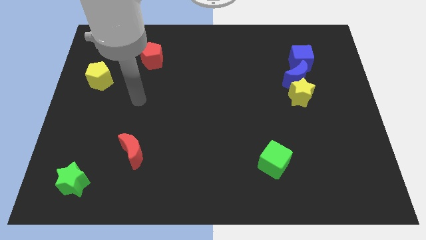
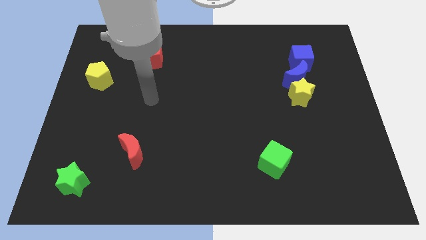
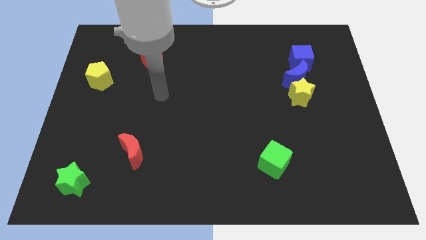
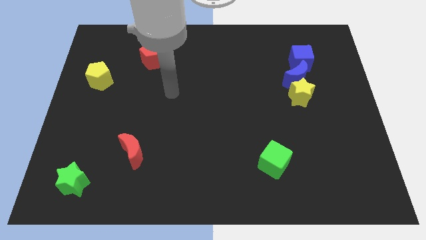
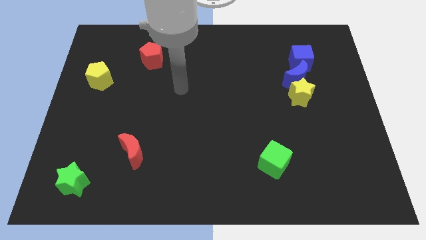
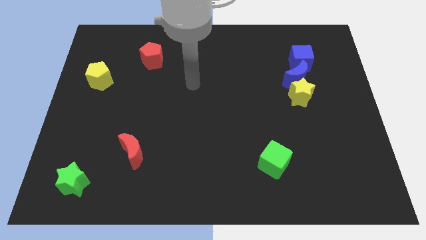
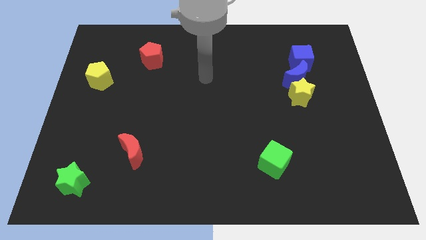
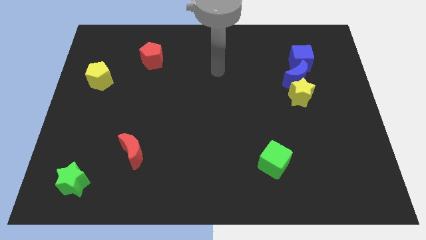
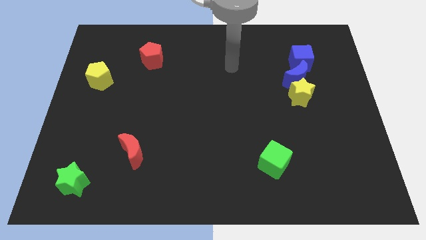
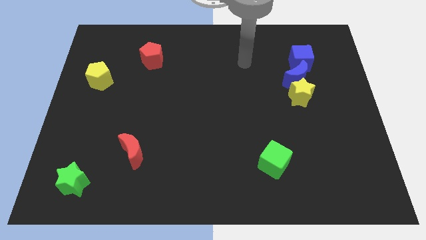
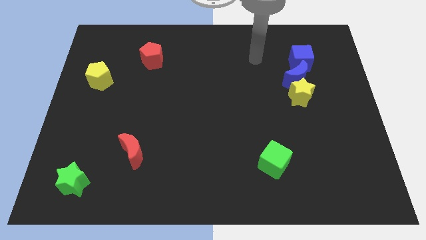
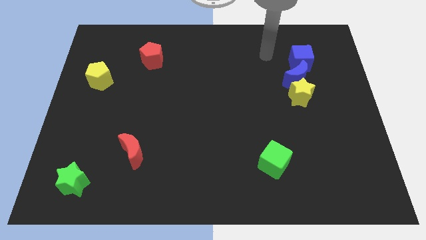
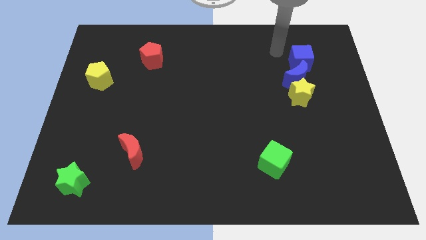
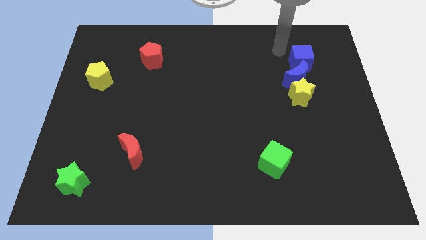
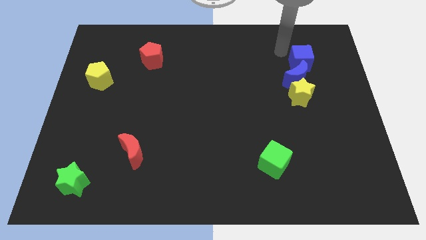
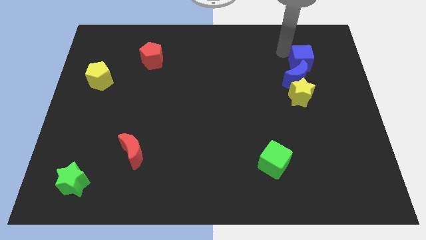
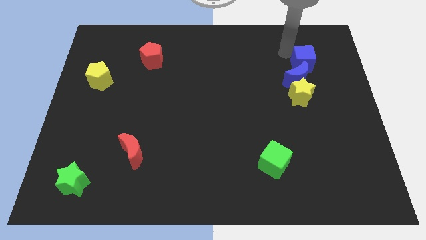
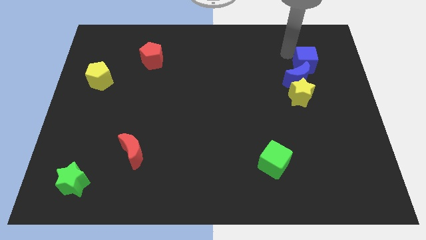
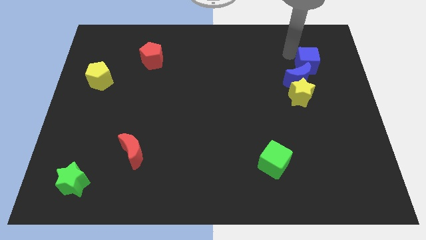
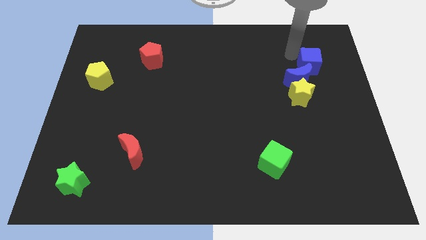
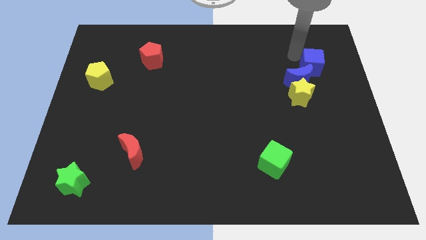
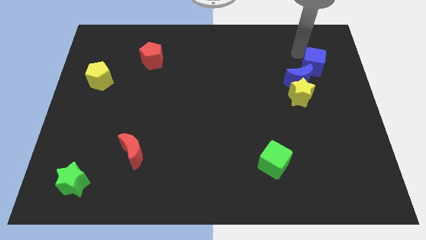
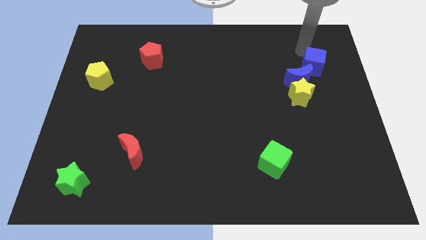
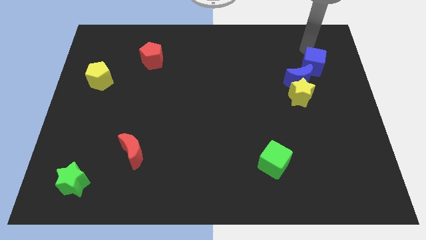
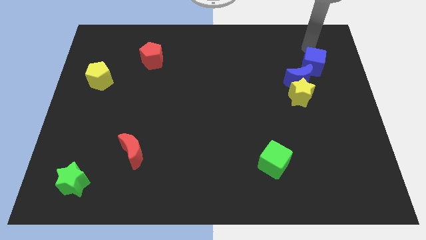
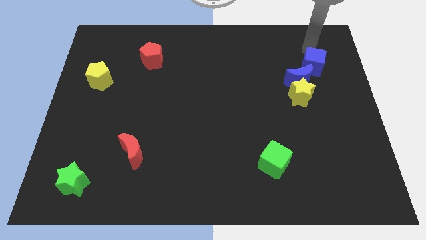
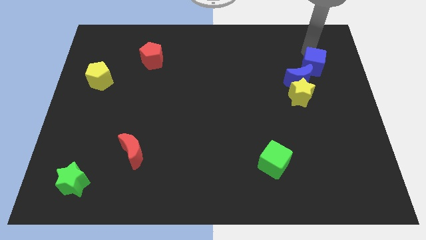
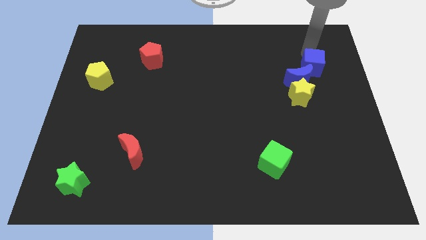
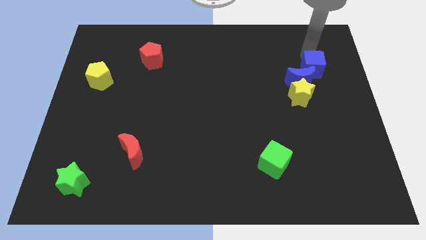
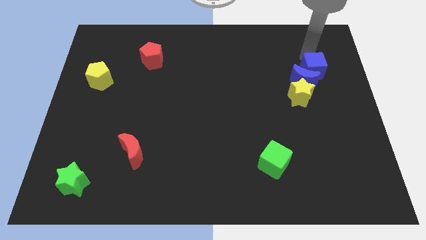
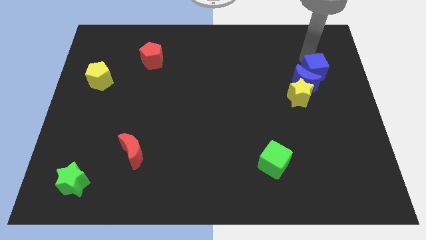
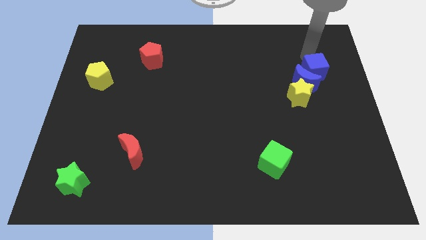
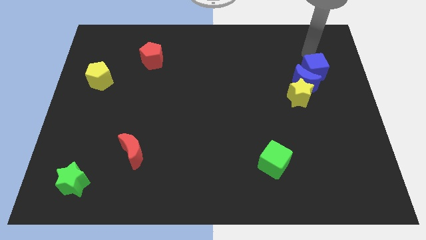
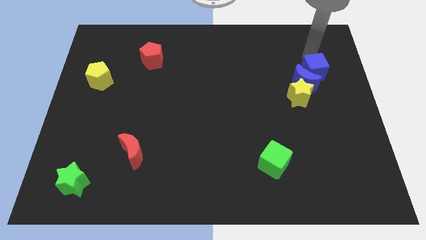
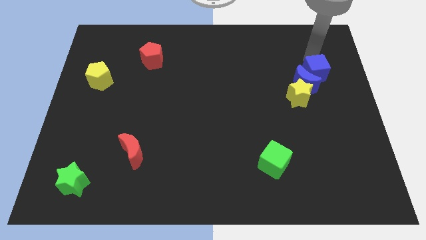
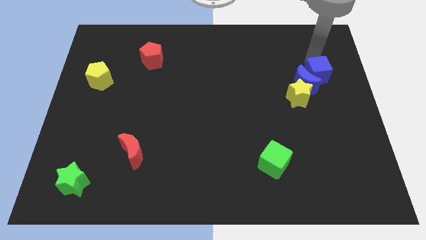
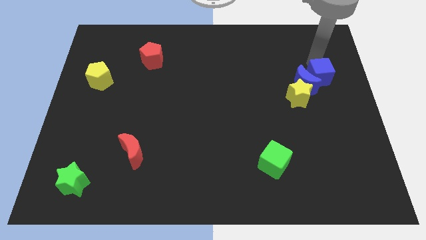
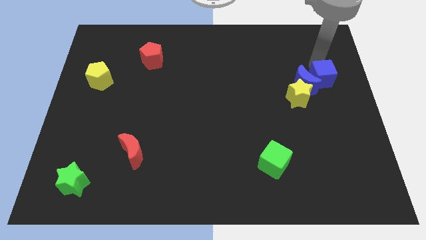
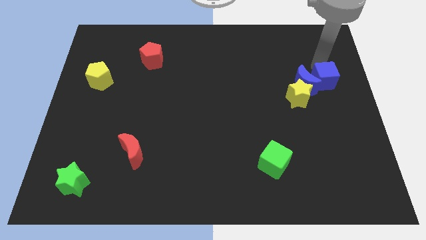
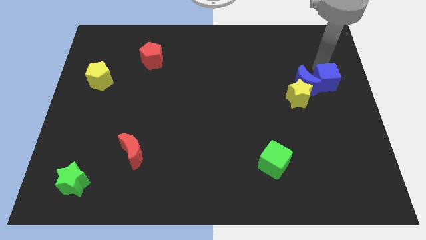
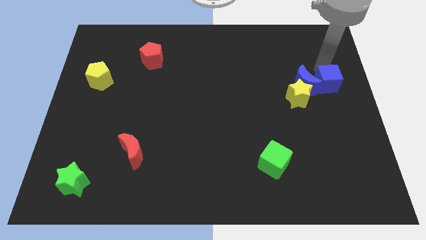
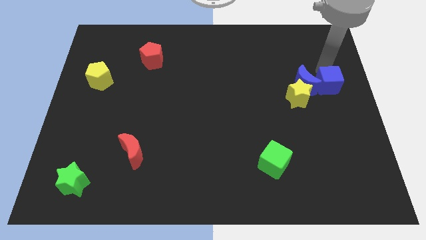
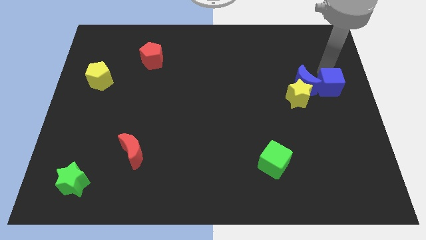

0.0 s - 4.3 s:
slightly push the blue cube downwards

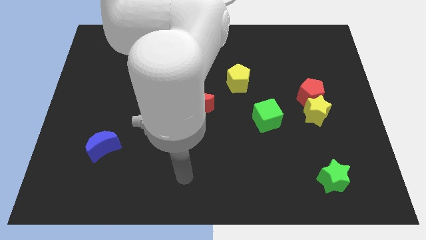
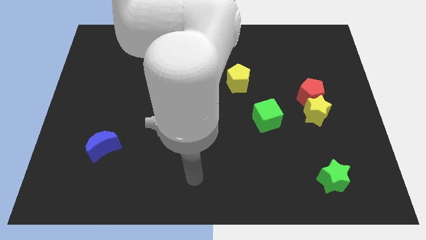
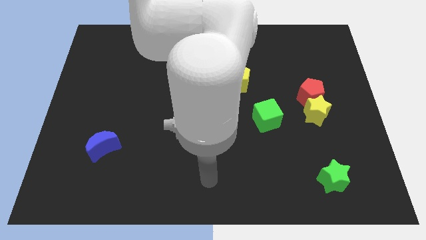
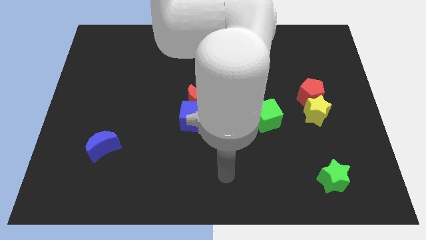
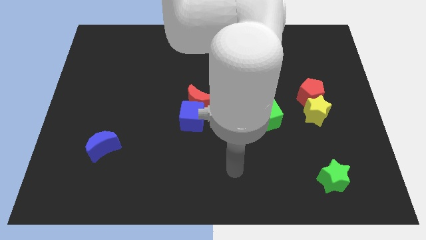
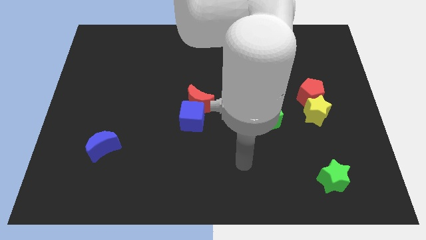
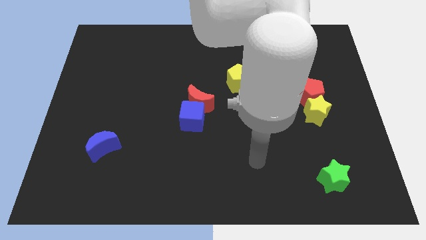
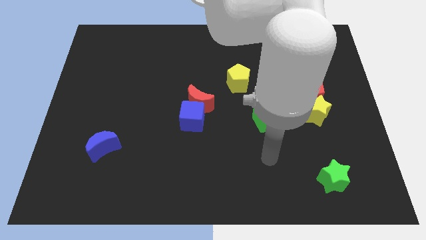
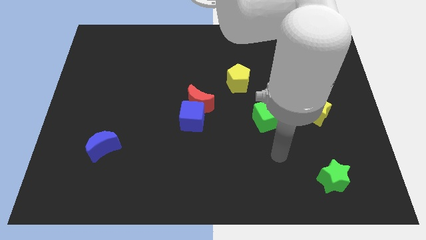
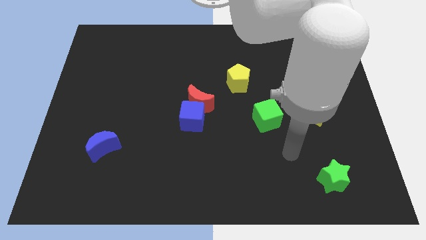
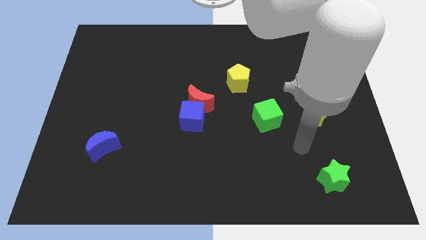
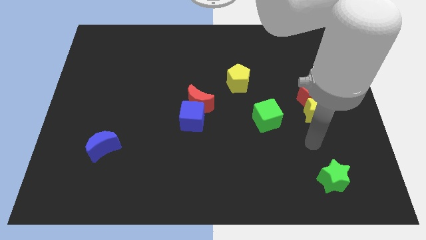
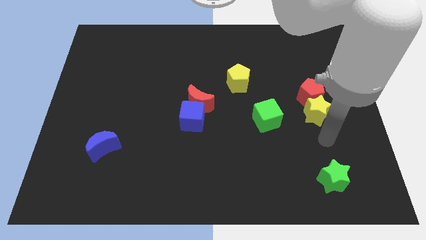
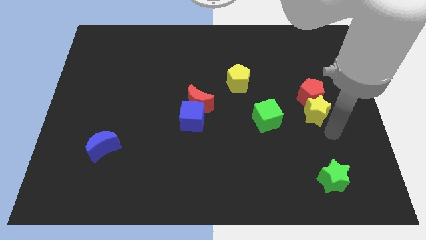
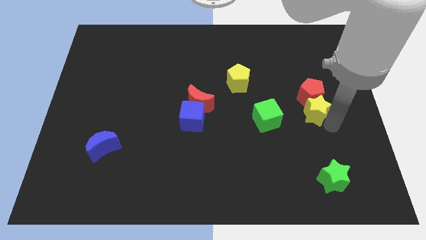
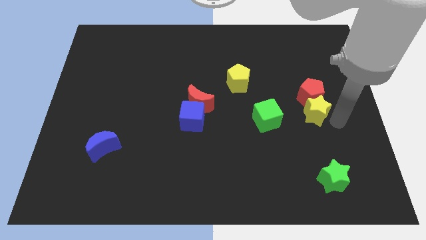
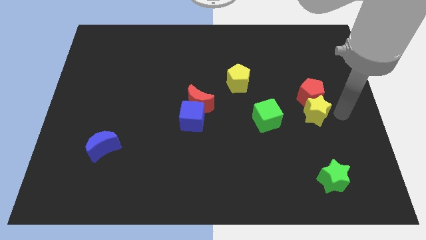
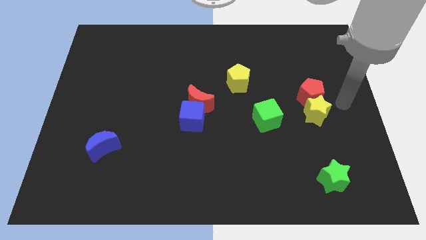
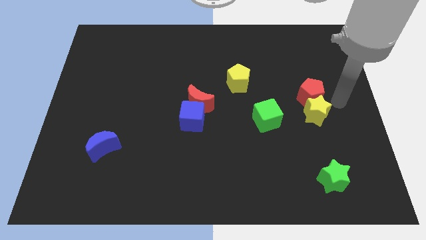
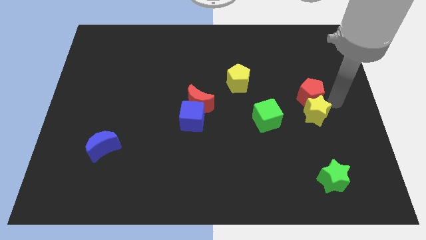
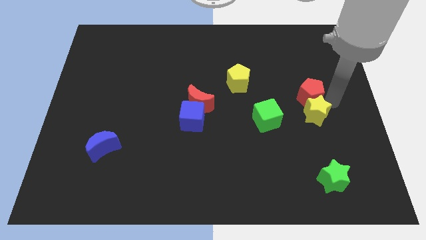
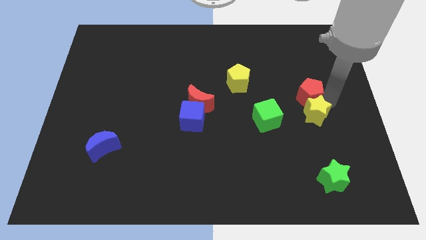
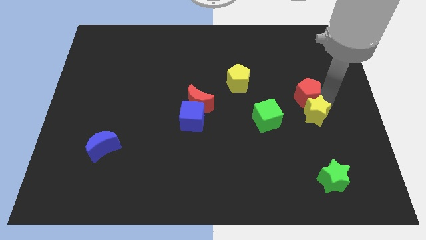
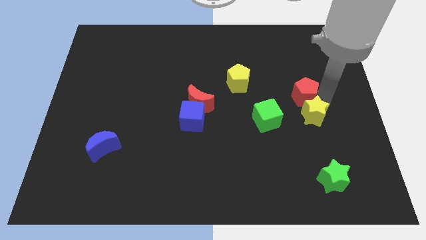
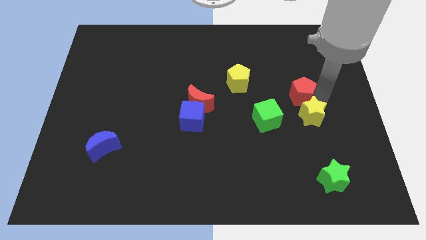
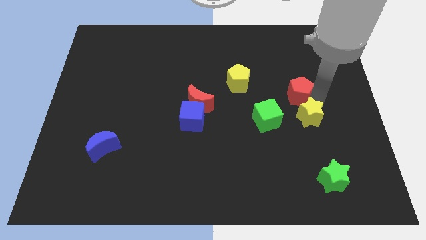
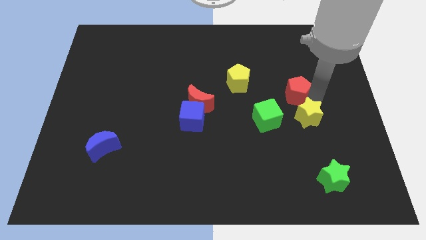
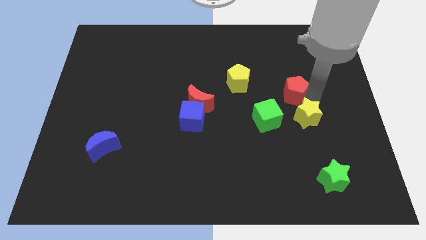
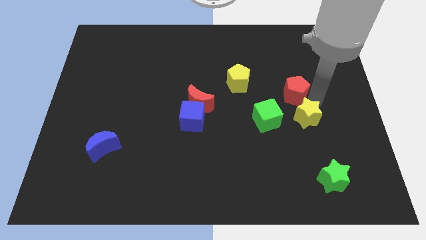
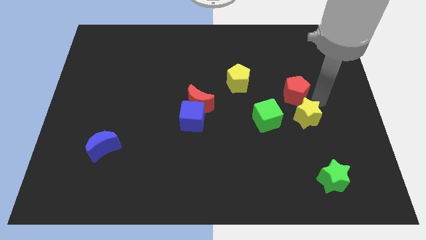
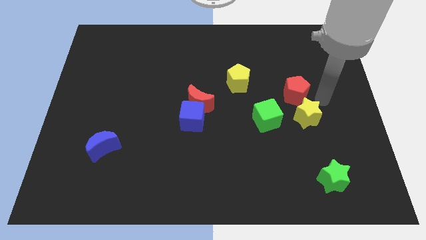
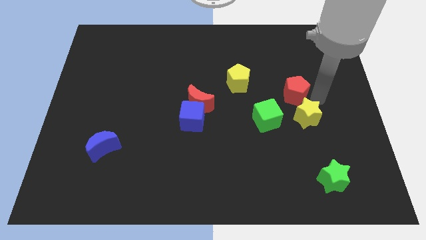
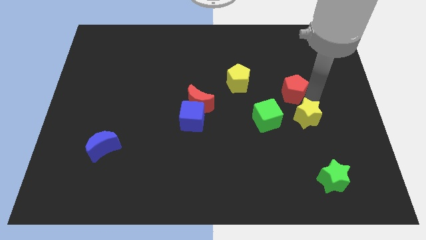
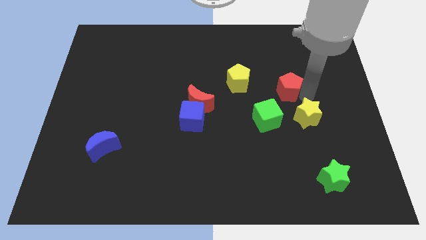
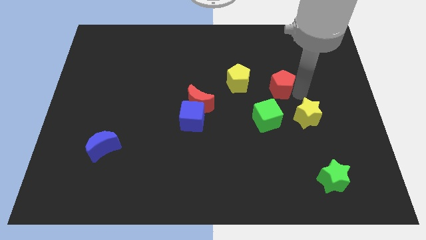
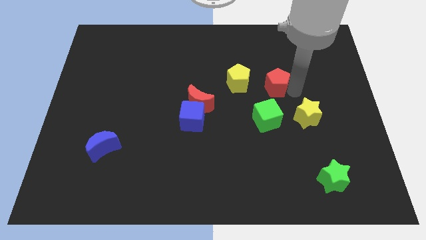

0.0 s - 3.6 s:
push the red pentagon slightly left

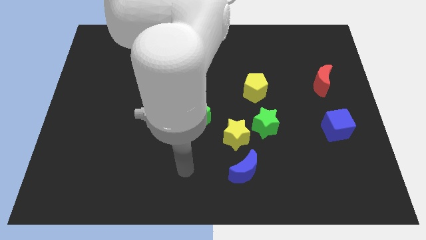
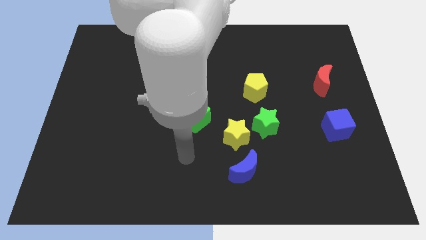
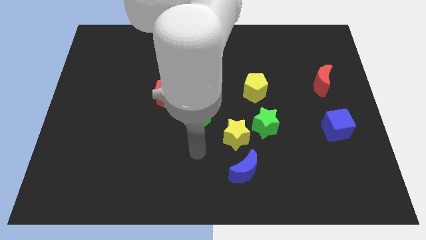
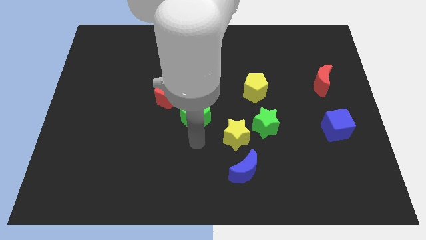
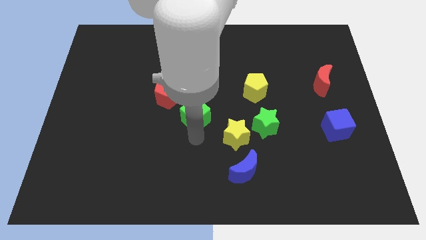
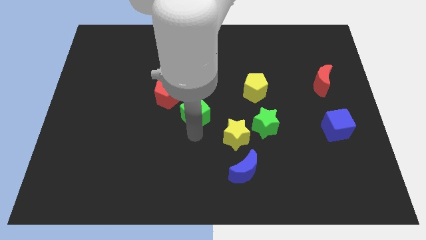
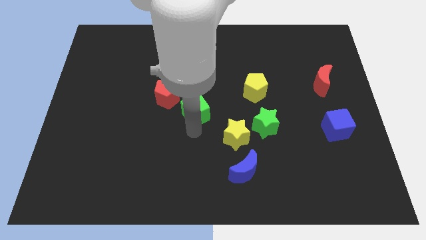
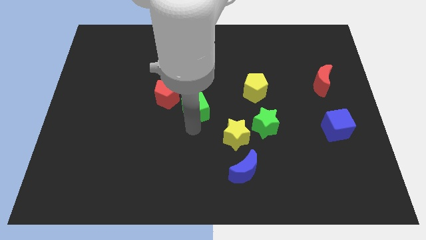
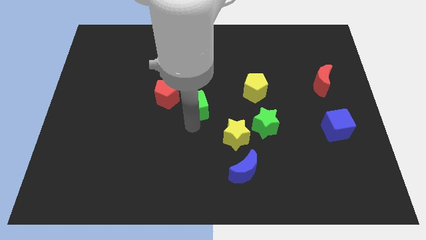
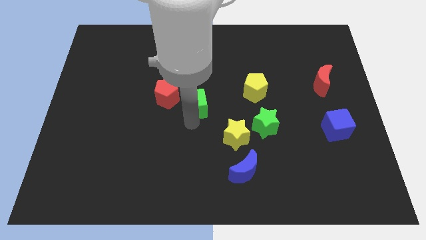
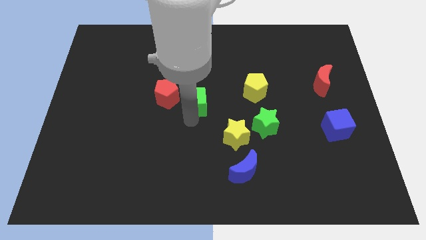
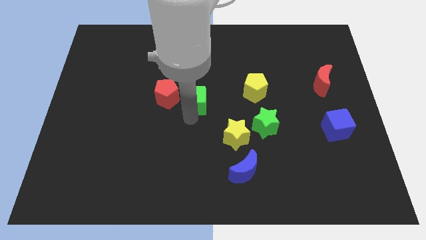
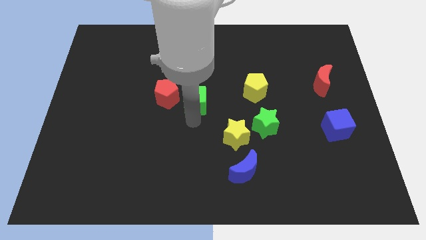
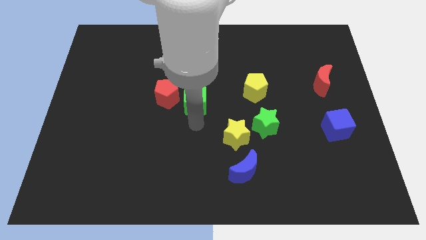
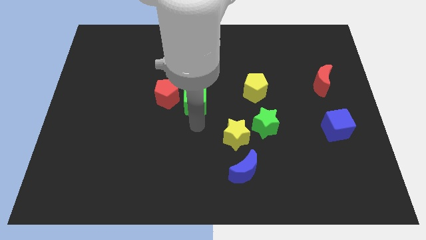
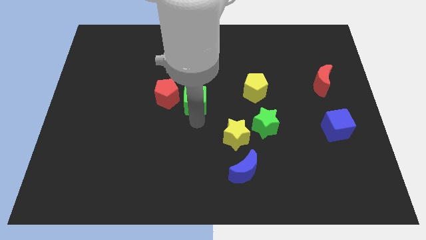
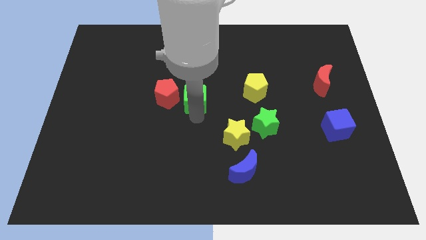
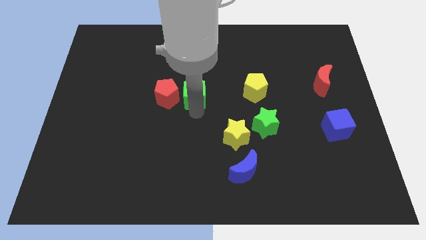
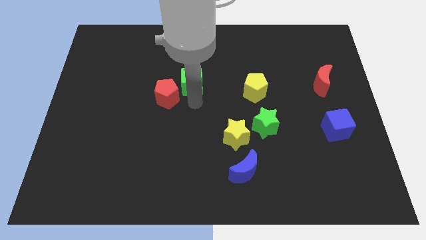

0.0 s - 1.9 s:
slightly push the green cube up
